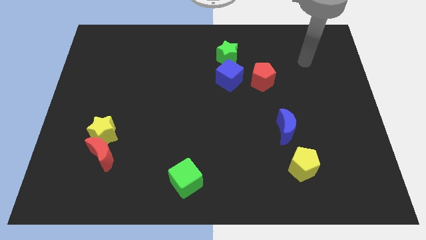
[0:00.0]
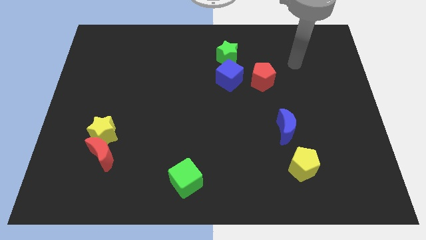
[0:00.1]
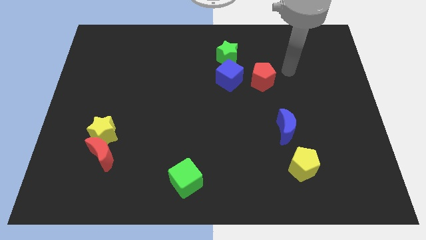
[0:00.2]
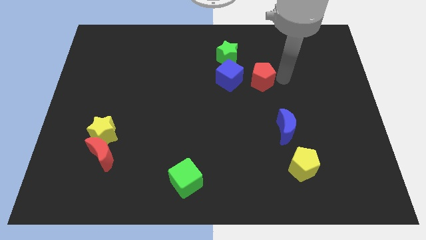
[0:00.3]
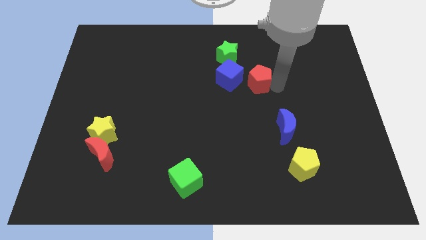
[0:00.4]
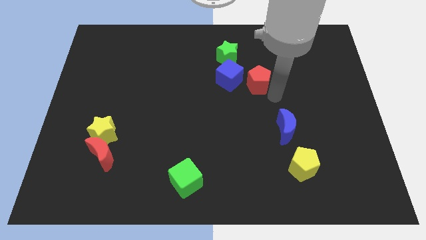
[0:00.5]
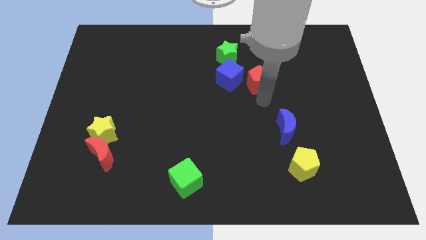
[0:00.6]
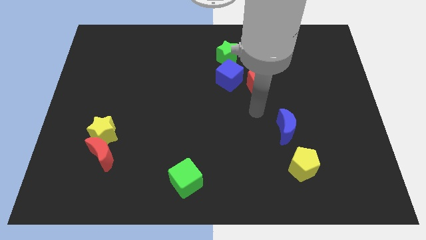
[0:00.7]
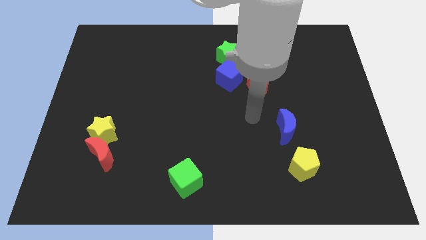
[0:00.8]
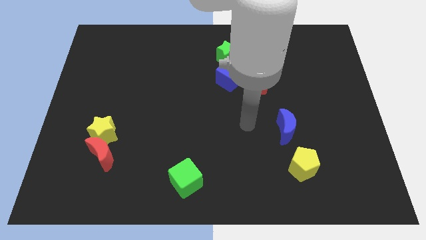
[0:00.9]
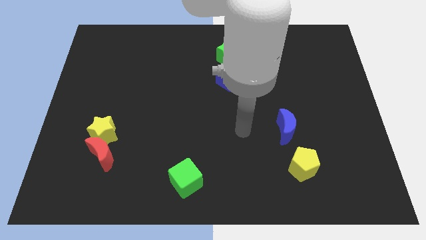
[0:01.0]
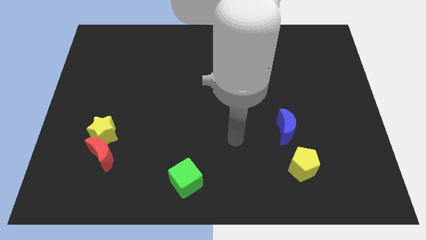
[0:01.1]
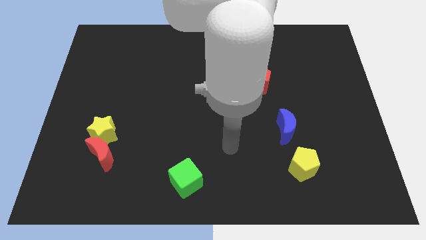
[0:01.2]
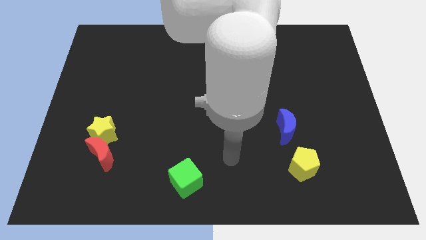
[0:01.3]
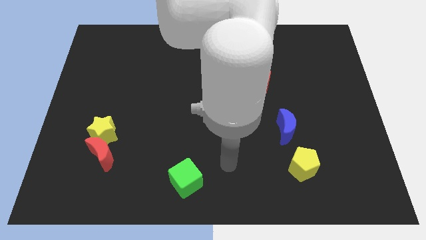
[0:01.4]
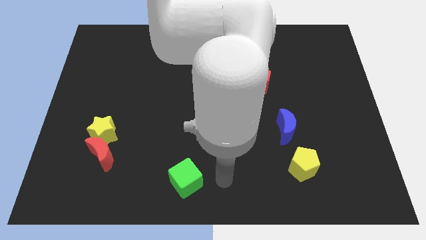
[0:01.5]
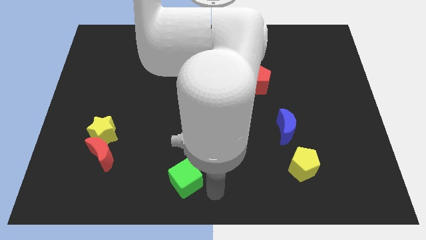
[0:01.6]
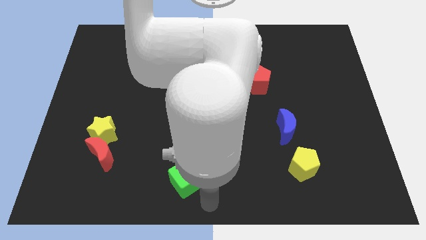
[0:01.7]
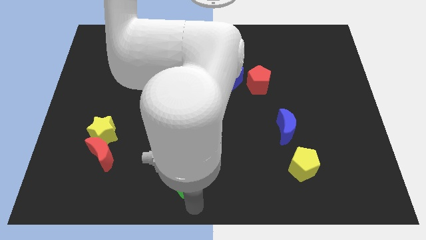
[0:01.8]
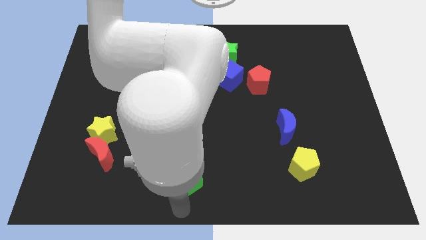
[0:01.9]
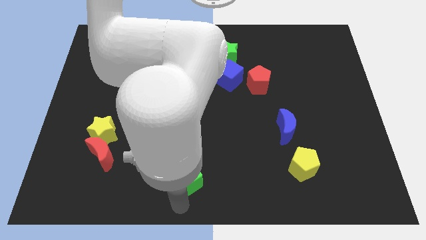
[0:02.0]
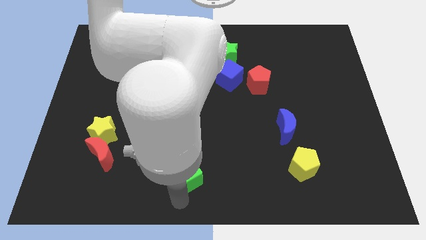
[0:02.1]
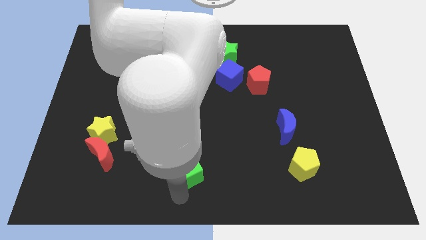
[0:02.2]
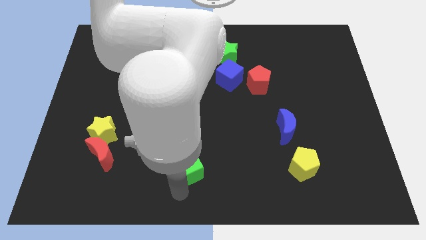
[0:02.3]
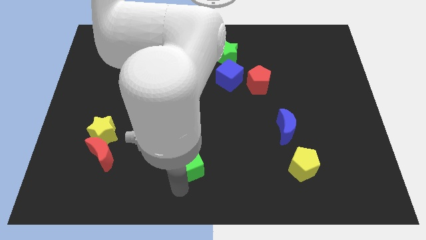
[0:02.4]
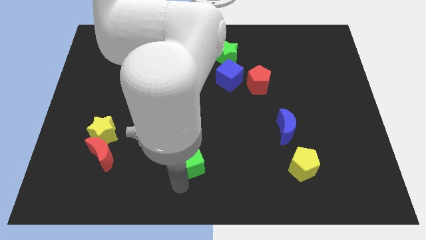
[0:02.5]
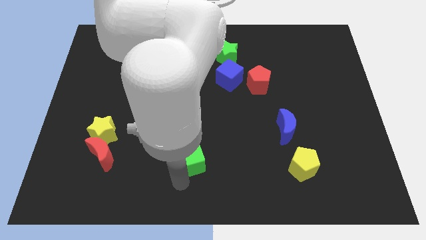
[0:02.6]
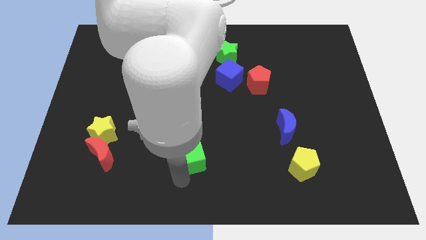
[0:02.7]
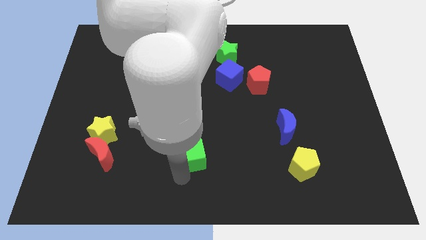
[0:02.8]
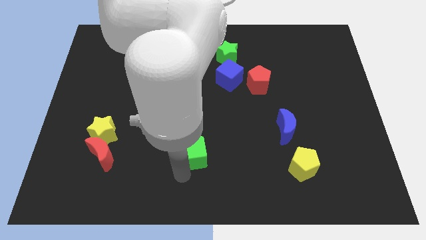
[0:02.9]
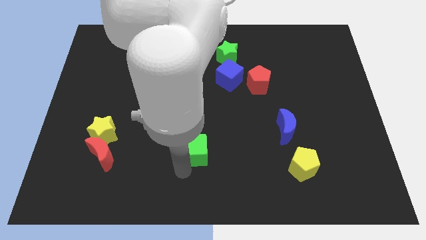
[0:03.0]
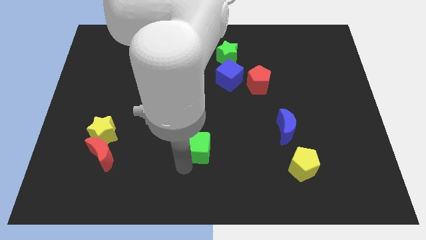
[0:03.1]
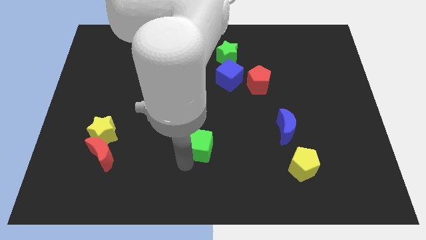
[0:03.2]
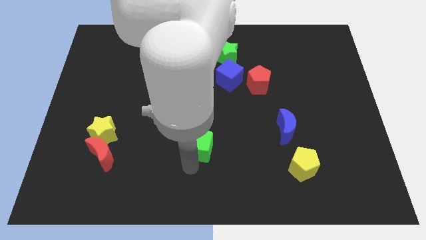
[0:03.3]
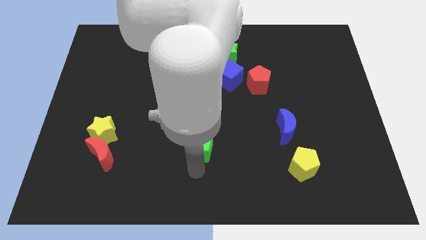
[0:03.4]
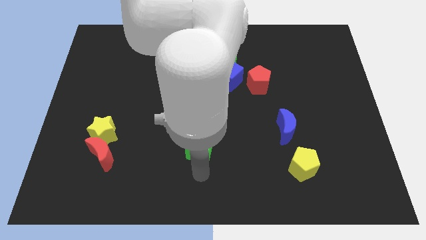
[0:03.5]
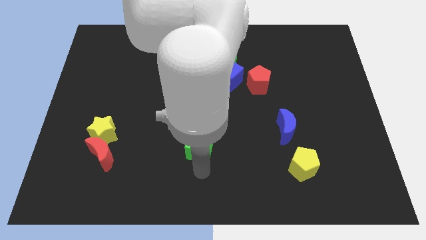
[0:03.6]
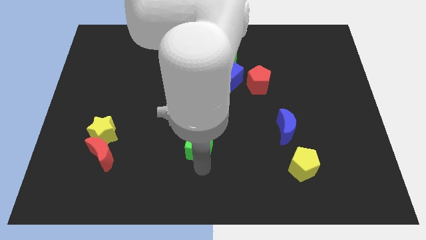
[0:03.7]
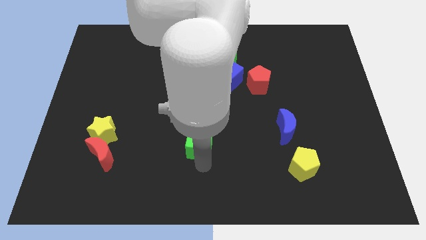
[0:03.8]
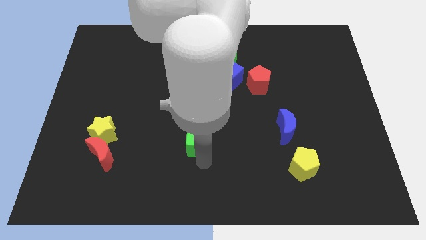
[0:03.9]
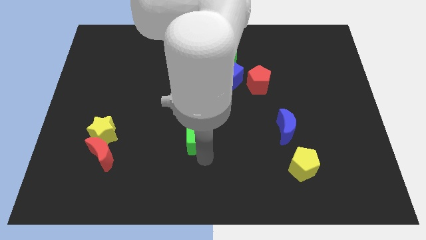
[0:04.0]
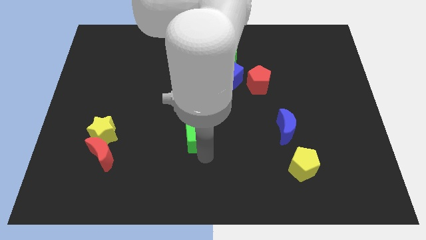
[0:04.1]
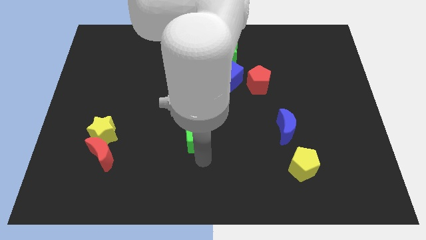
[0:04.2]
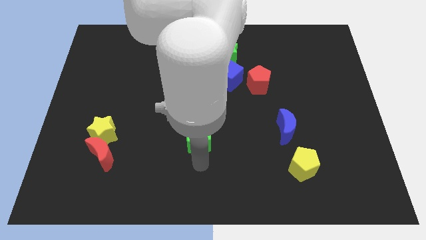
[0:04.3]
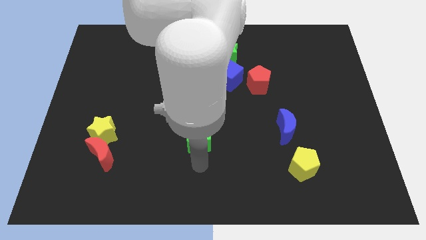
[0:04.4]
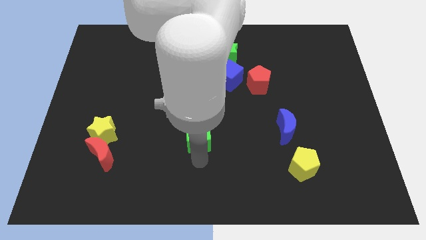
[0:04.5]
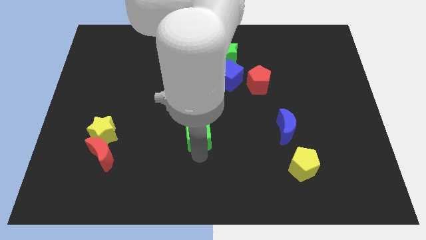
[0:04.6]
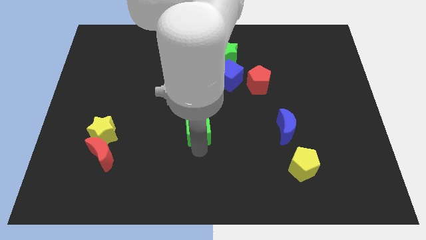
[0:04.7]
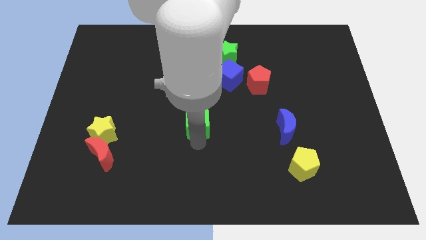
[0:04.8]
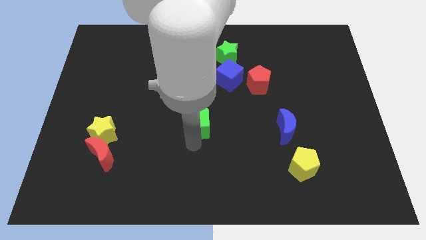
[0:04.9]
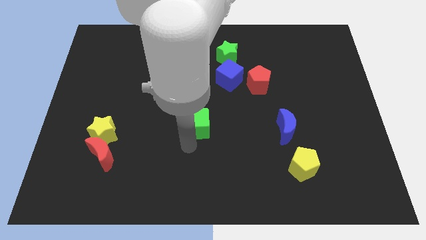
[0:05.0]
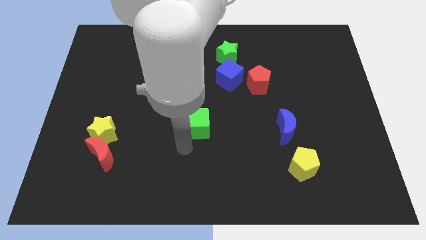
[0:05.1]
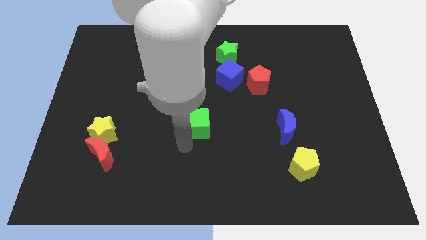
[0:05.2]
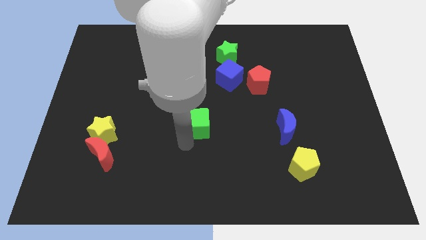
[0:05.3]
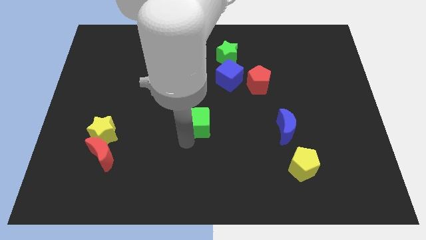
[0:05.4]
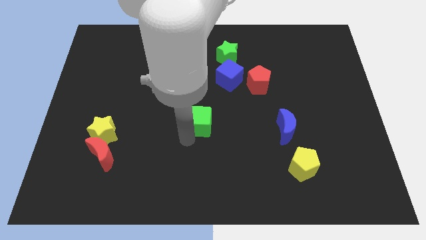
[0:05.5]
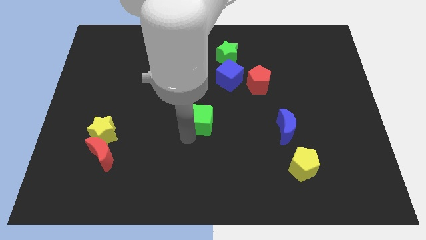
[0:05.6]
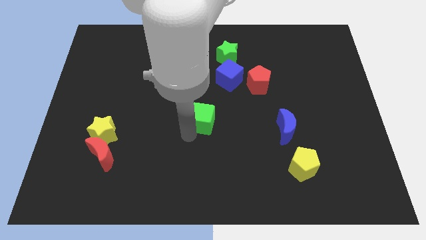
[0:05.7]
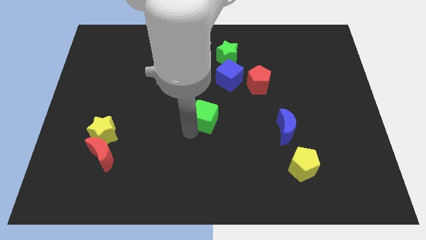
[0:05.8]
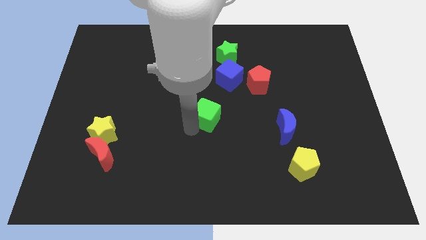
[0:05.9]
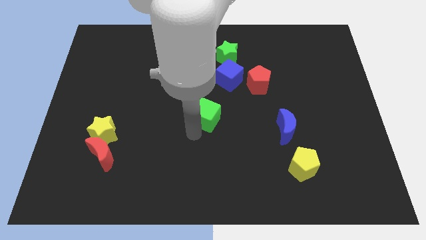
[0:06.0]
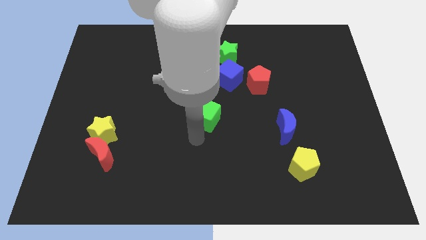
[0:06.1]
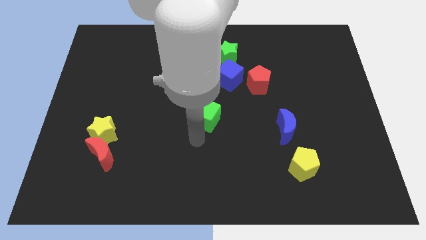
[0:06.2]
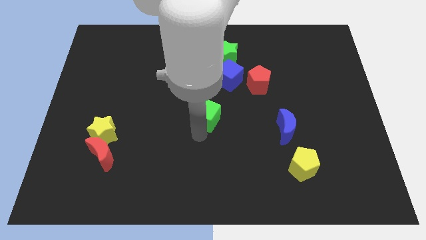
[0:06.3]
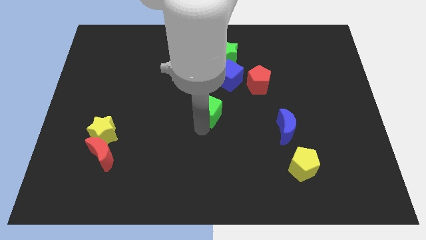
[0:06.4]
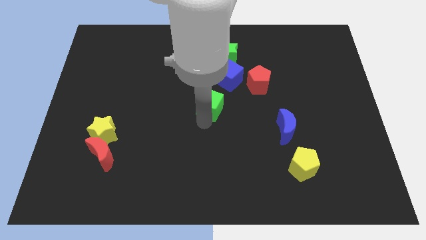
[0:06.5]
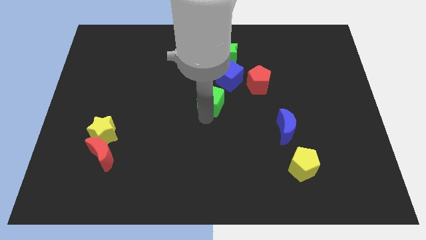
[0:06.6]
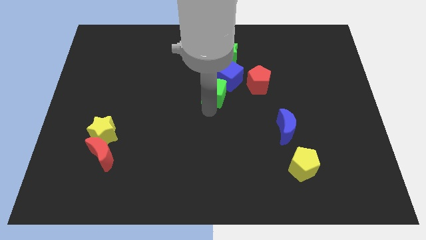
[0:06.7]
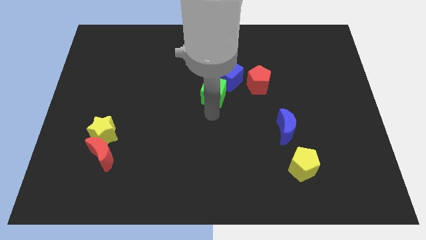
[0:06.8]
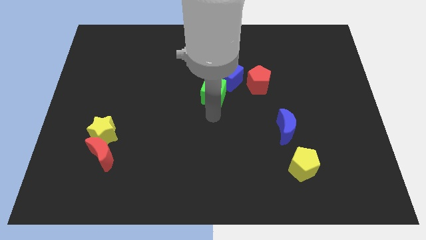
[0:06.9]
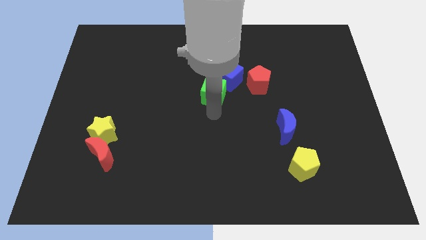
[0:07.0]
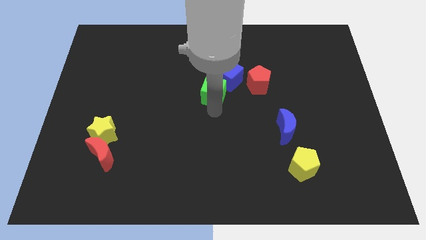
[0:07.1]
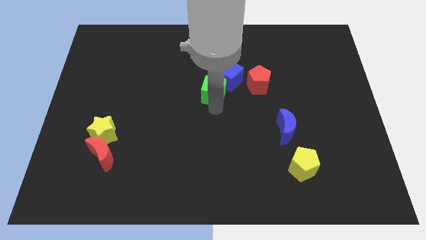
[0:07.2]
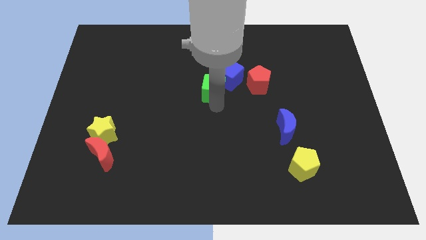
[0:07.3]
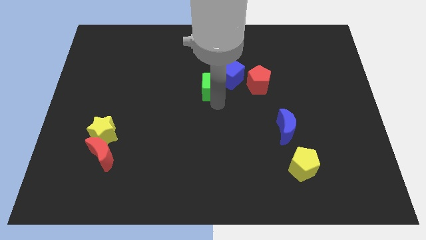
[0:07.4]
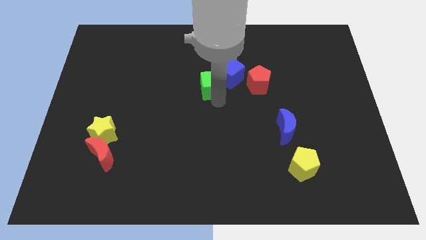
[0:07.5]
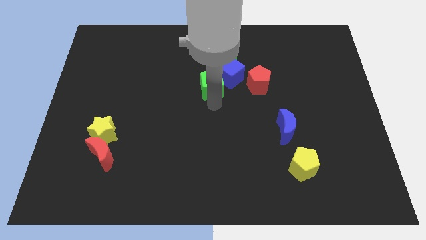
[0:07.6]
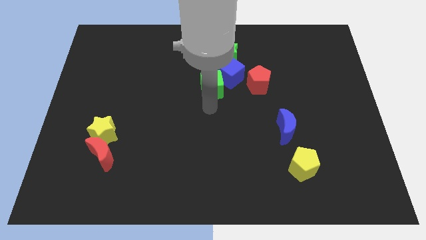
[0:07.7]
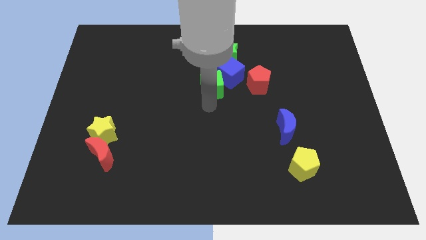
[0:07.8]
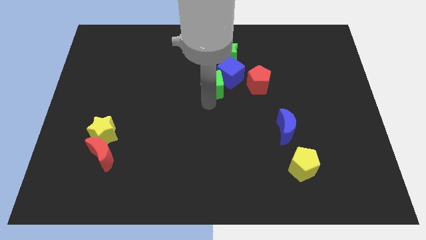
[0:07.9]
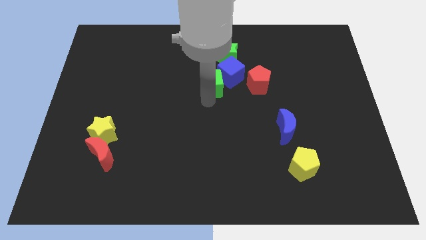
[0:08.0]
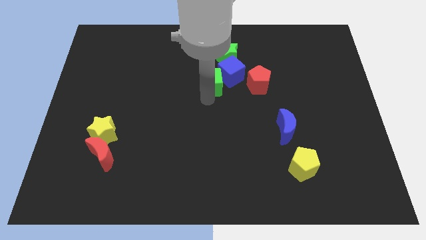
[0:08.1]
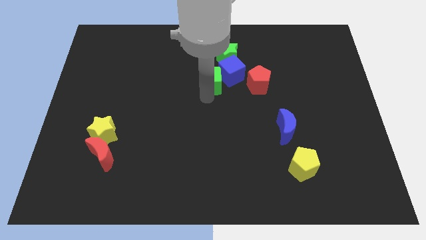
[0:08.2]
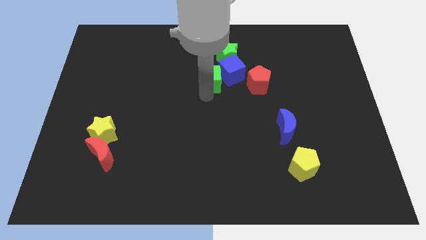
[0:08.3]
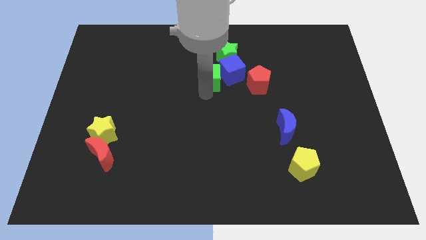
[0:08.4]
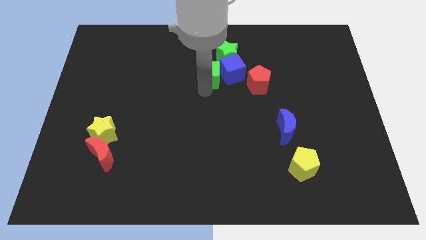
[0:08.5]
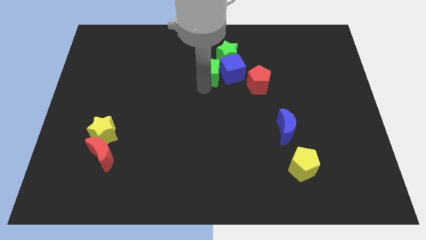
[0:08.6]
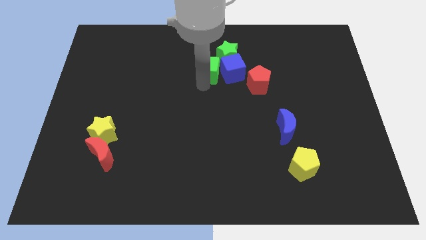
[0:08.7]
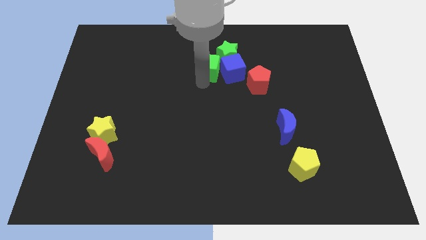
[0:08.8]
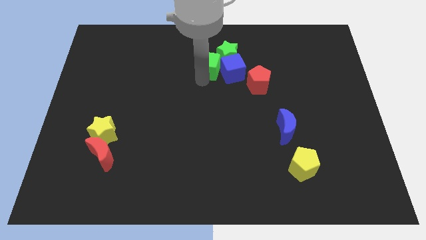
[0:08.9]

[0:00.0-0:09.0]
put the green cube close to the green star
